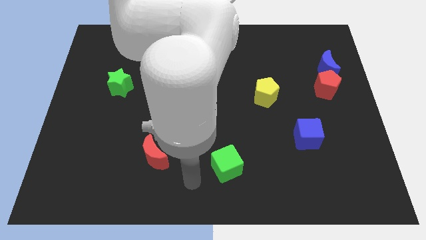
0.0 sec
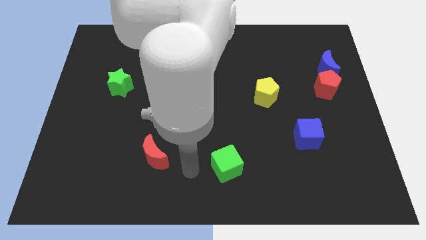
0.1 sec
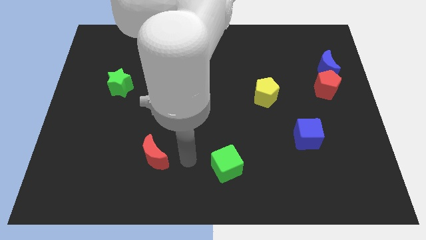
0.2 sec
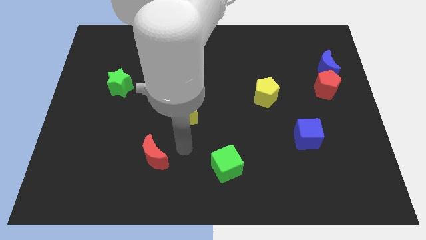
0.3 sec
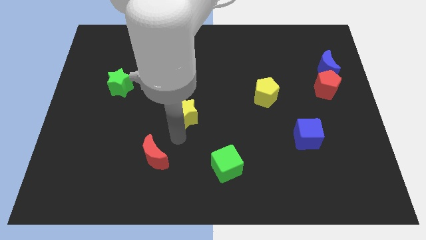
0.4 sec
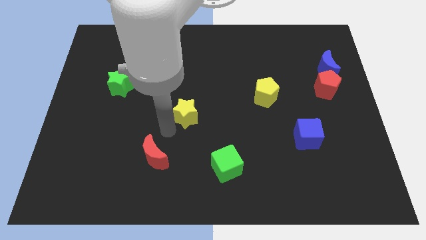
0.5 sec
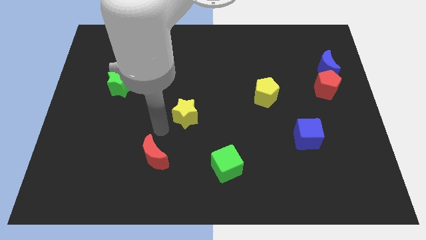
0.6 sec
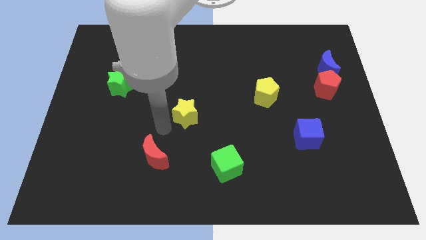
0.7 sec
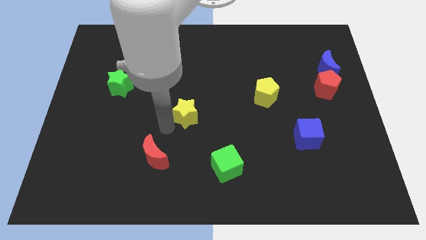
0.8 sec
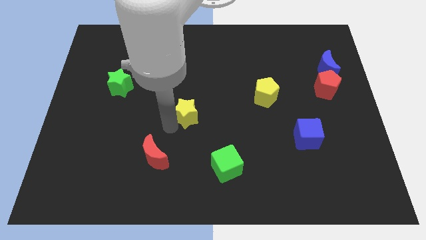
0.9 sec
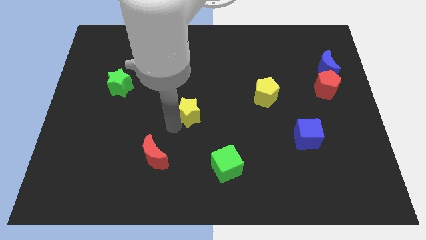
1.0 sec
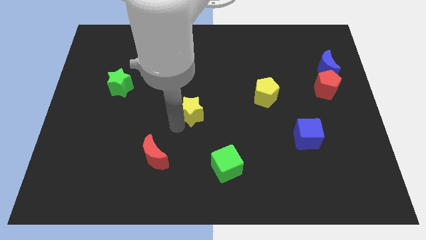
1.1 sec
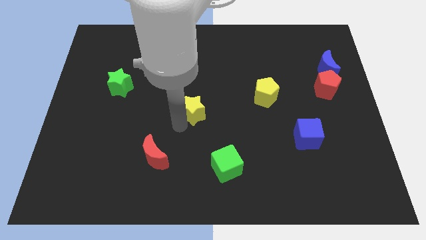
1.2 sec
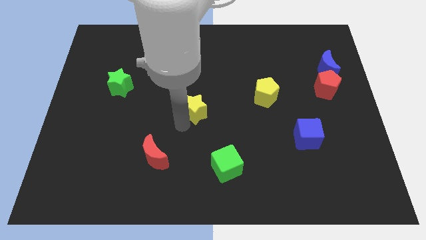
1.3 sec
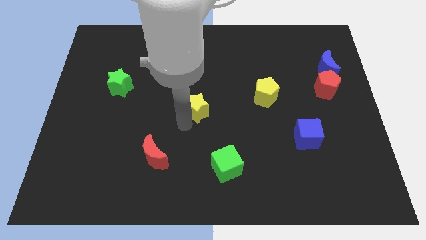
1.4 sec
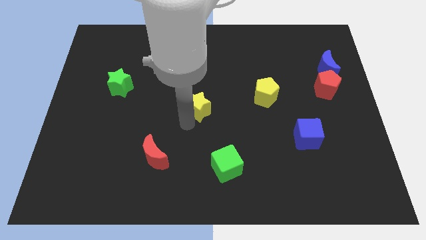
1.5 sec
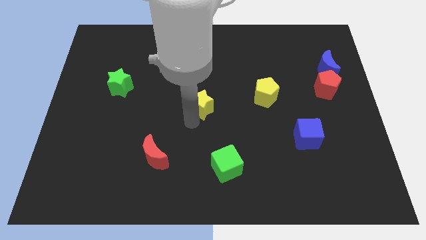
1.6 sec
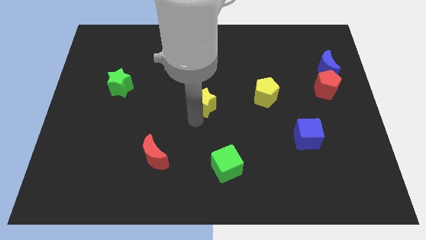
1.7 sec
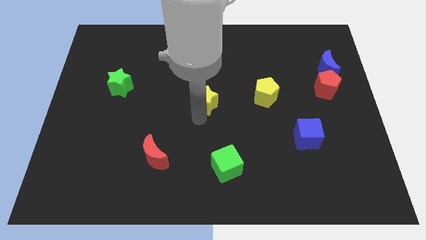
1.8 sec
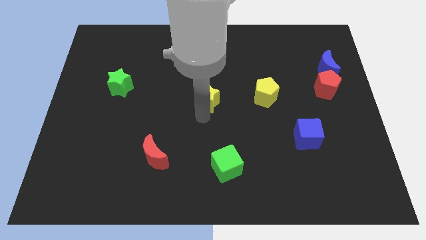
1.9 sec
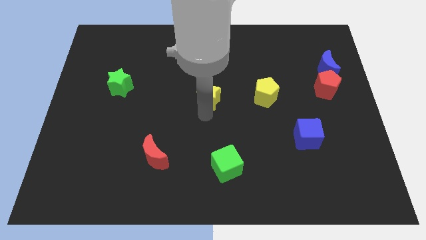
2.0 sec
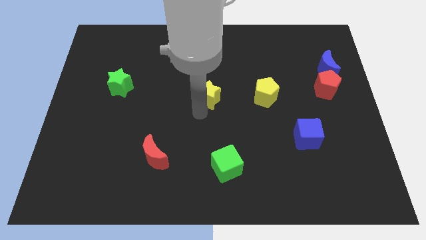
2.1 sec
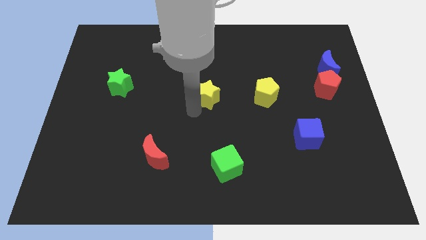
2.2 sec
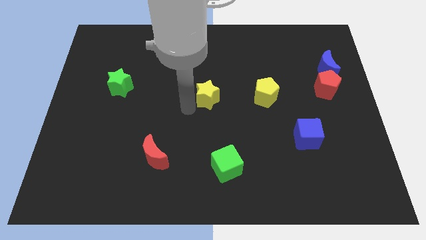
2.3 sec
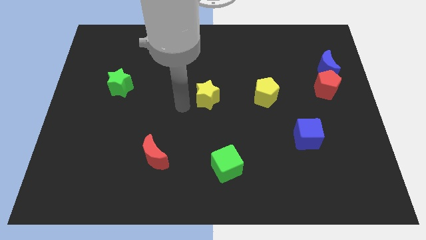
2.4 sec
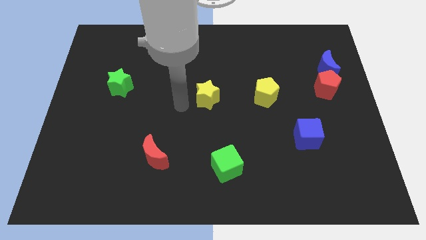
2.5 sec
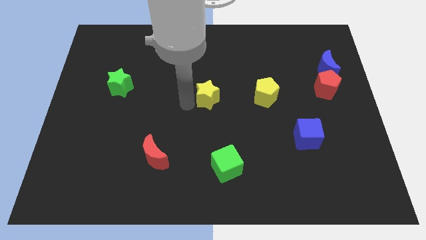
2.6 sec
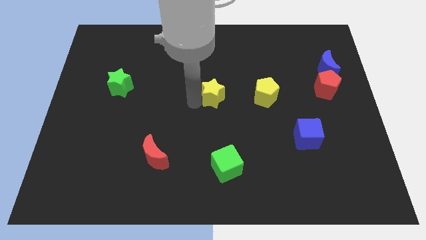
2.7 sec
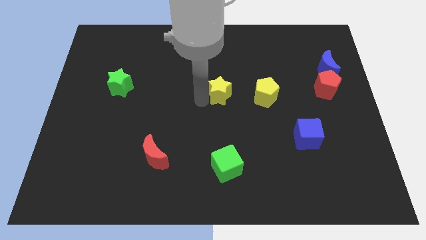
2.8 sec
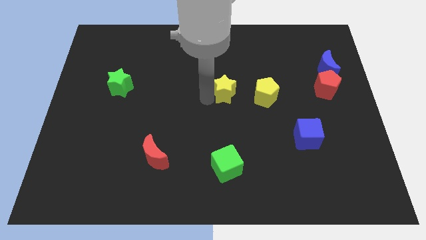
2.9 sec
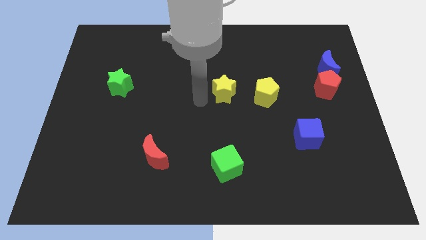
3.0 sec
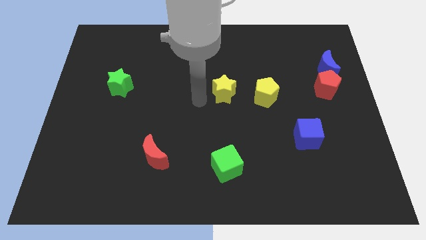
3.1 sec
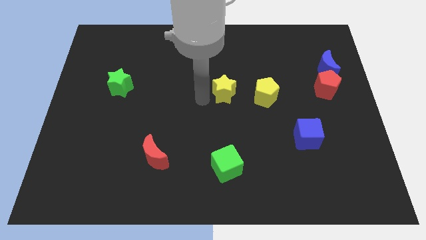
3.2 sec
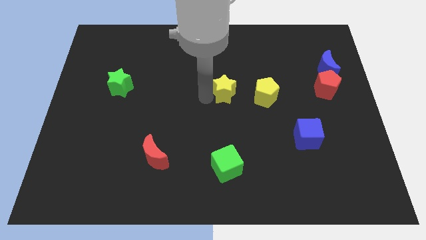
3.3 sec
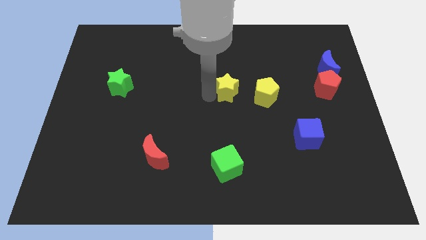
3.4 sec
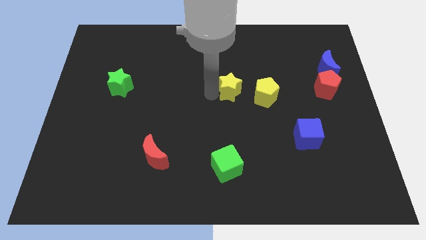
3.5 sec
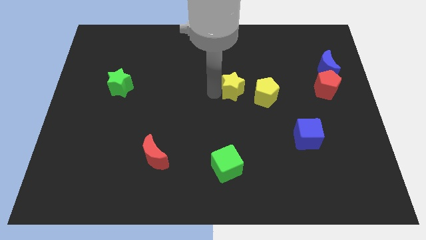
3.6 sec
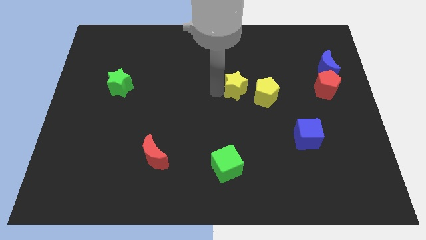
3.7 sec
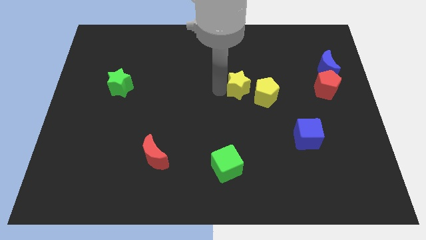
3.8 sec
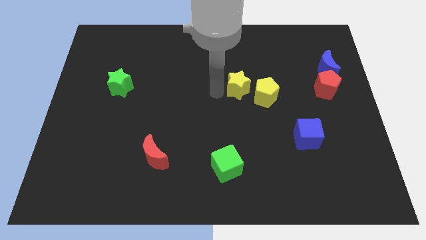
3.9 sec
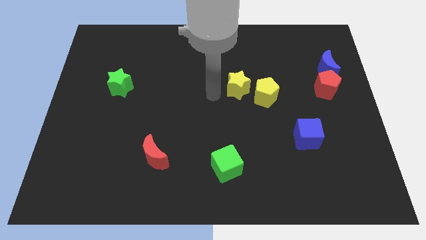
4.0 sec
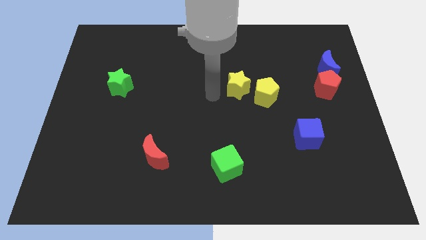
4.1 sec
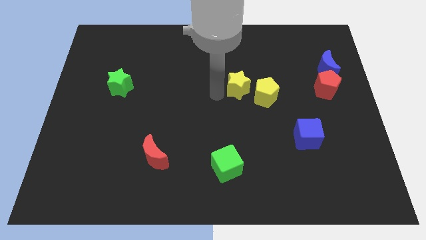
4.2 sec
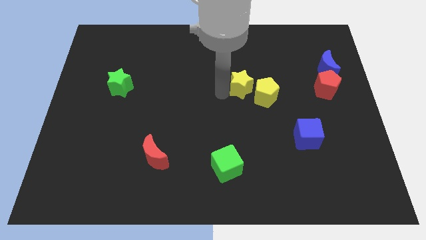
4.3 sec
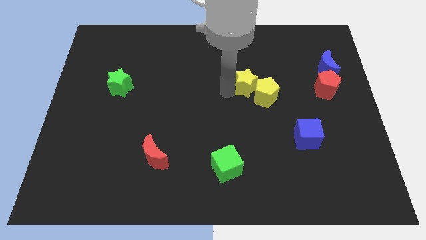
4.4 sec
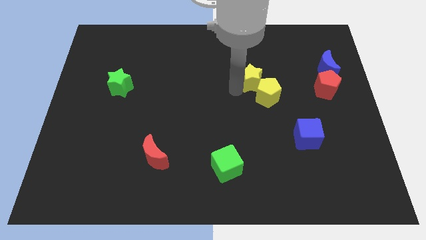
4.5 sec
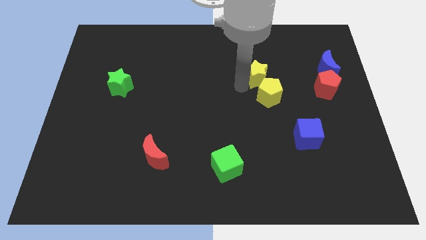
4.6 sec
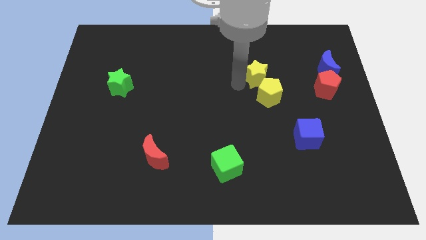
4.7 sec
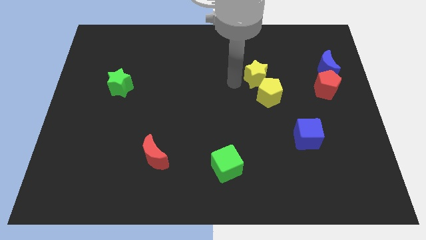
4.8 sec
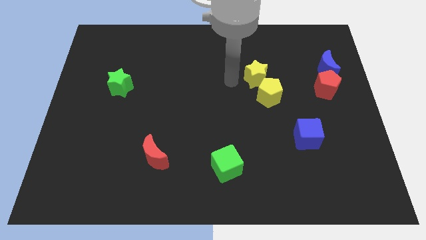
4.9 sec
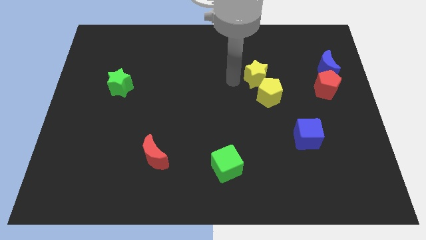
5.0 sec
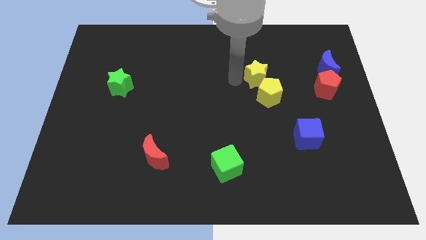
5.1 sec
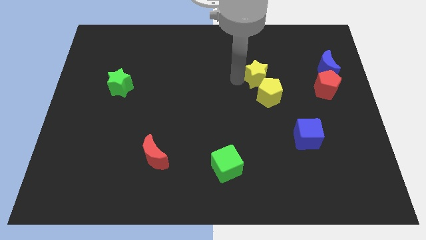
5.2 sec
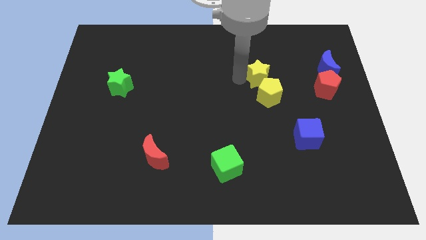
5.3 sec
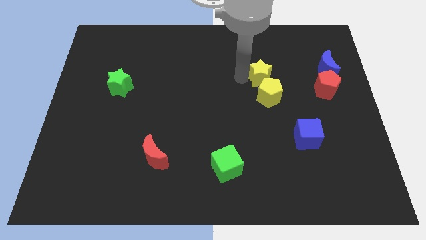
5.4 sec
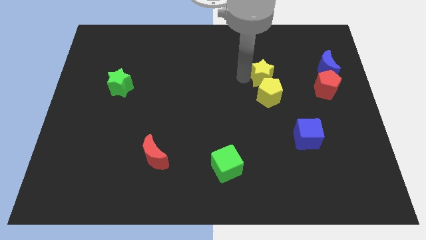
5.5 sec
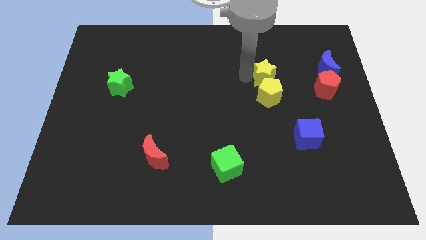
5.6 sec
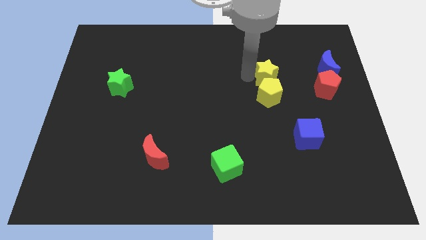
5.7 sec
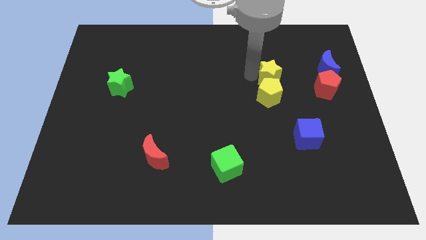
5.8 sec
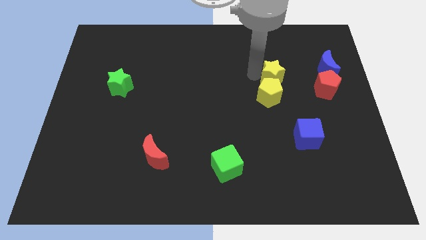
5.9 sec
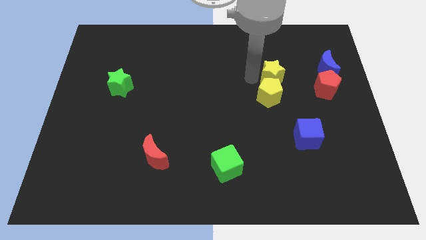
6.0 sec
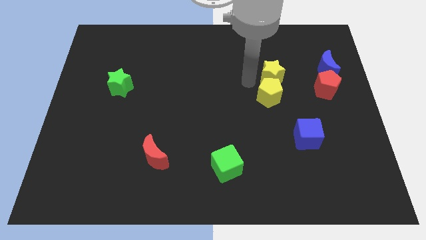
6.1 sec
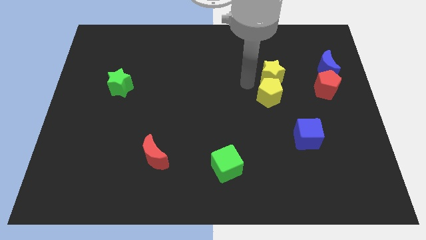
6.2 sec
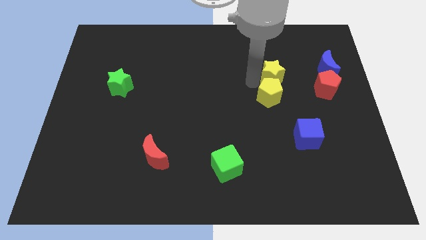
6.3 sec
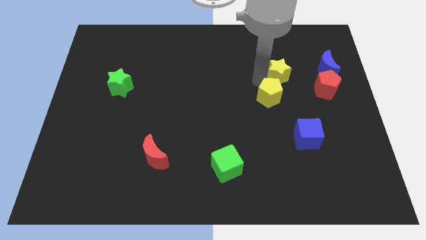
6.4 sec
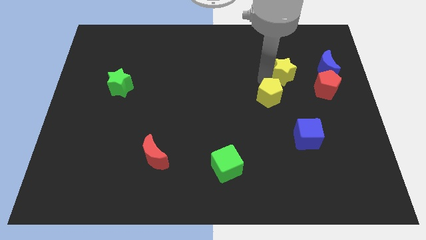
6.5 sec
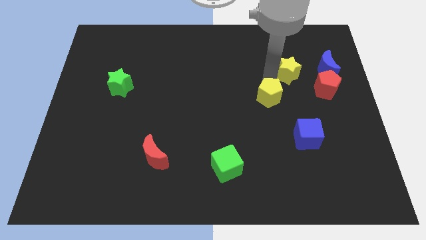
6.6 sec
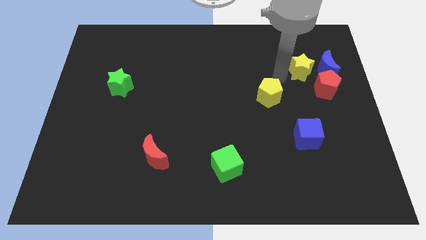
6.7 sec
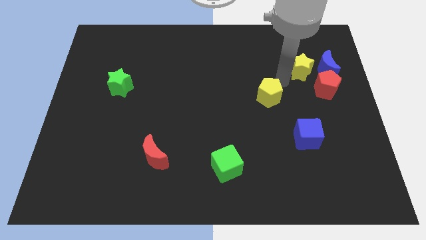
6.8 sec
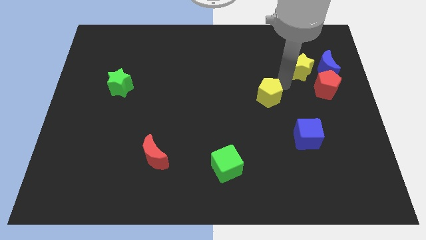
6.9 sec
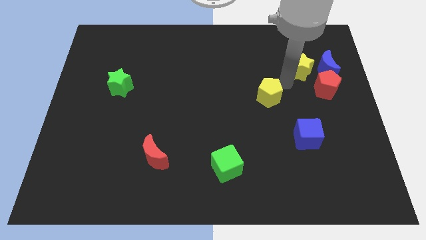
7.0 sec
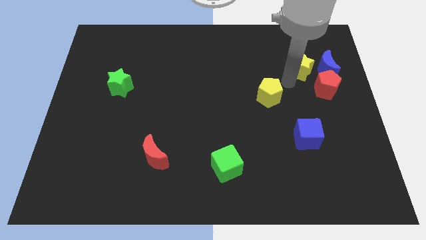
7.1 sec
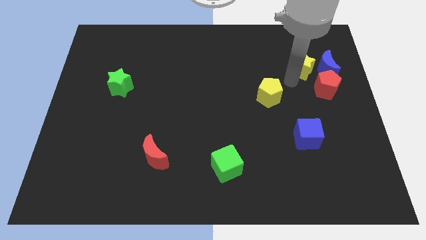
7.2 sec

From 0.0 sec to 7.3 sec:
move the yellow star to the top side of the red pentagon
